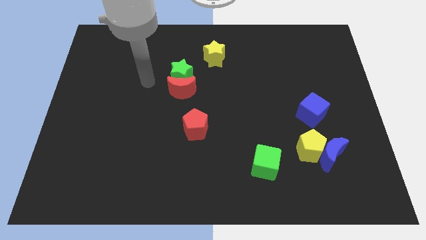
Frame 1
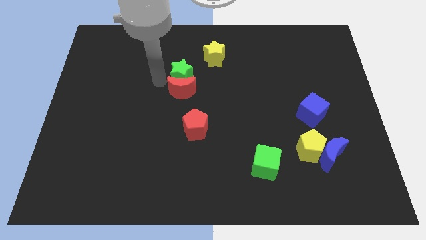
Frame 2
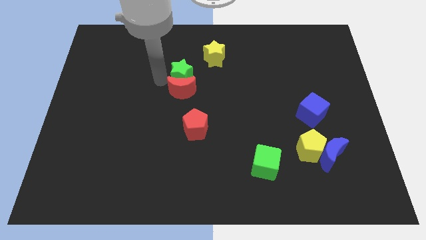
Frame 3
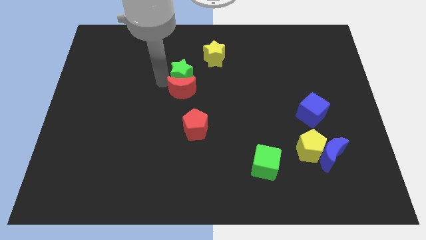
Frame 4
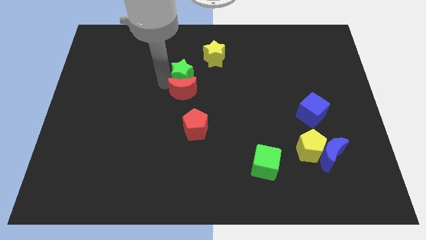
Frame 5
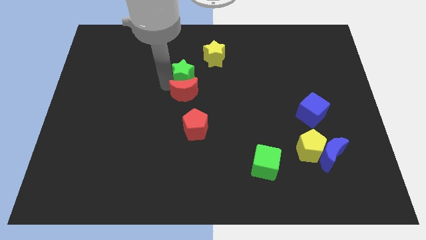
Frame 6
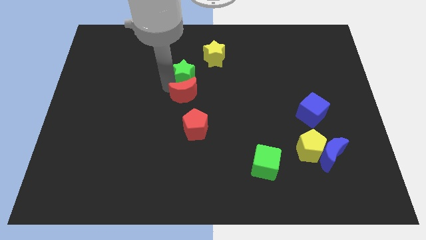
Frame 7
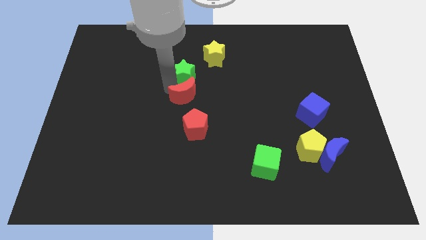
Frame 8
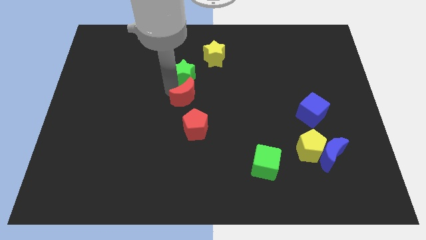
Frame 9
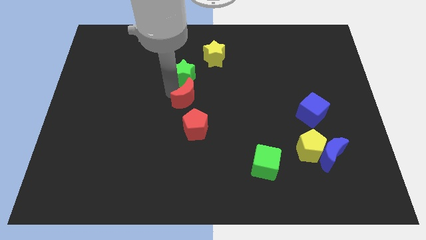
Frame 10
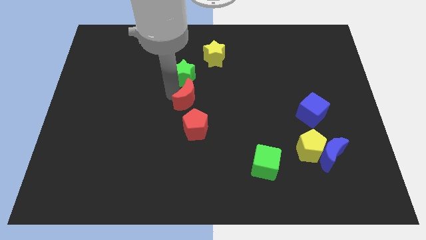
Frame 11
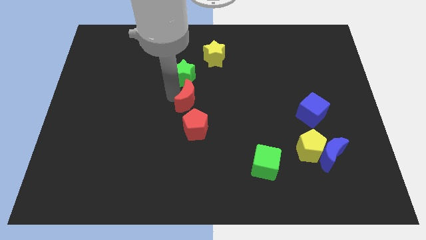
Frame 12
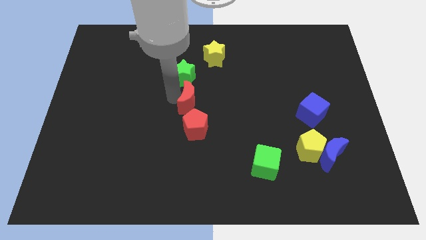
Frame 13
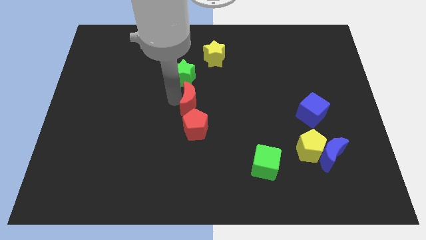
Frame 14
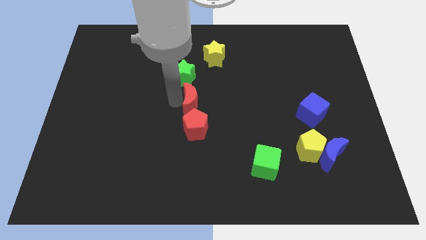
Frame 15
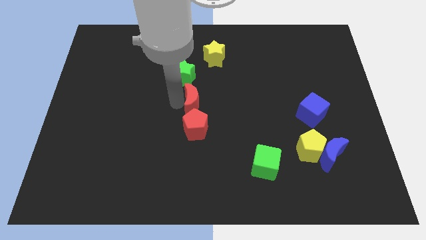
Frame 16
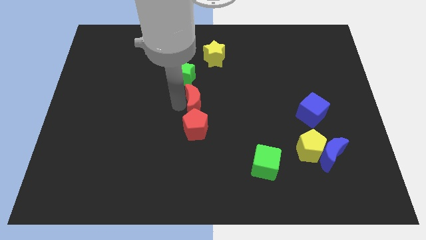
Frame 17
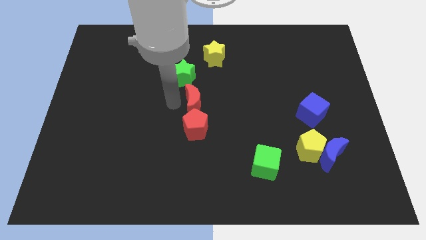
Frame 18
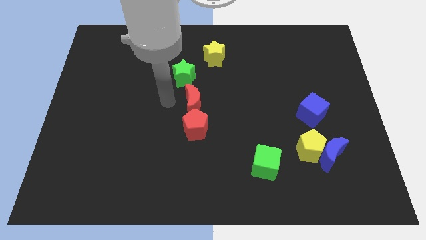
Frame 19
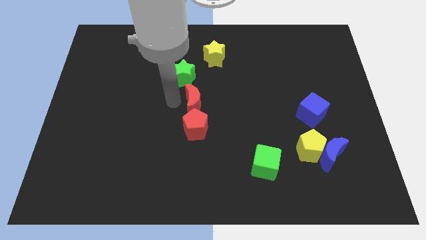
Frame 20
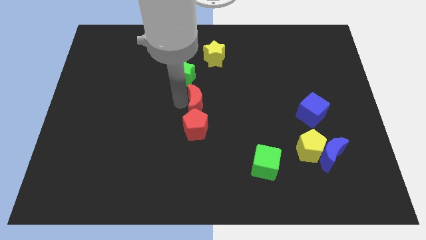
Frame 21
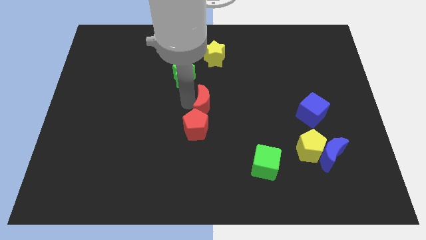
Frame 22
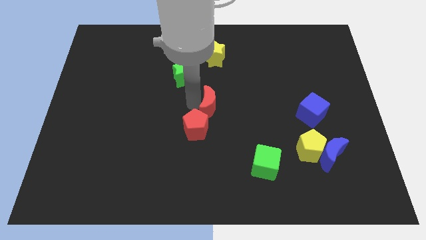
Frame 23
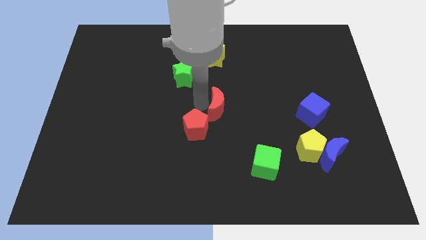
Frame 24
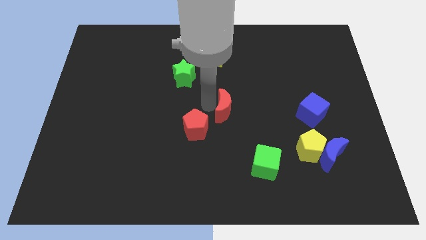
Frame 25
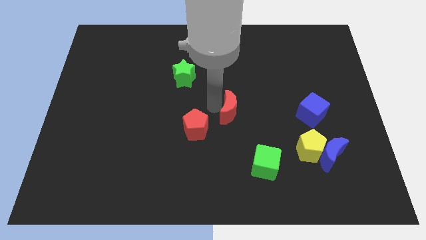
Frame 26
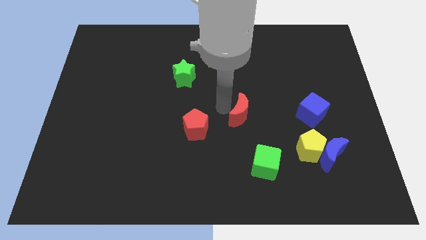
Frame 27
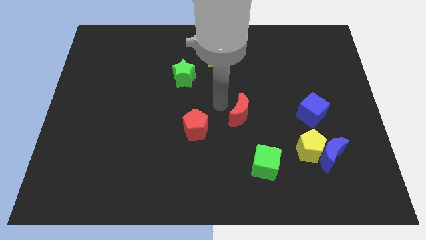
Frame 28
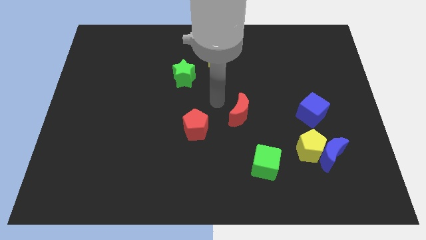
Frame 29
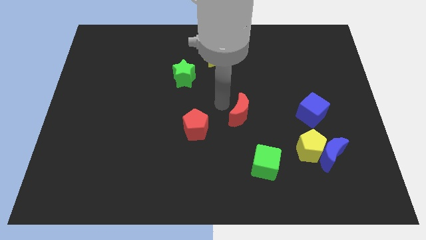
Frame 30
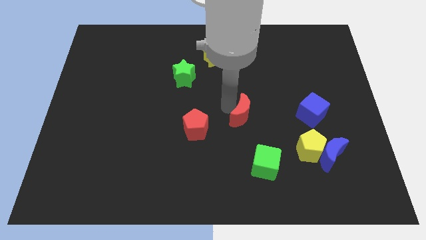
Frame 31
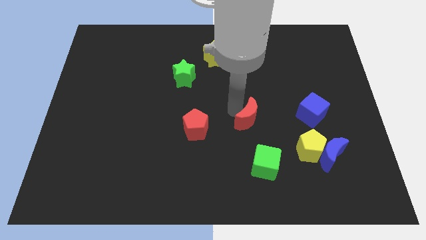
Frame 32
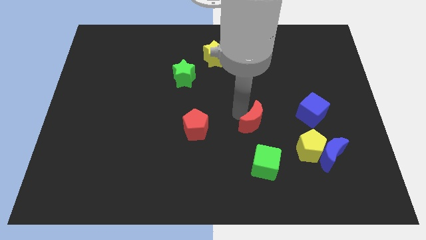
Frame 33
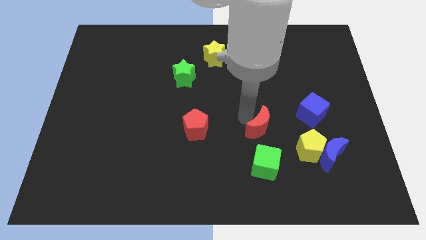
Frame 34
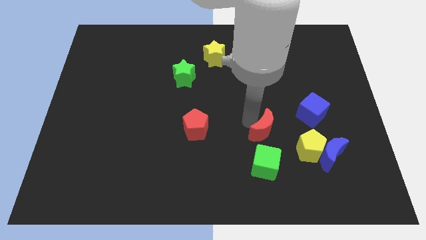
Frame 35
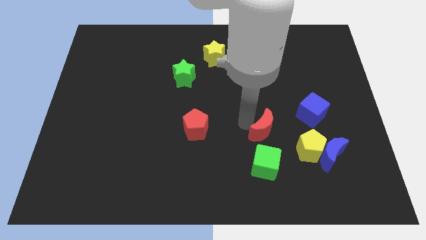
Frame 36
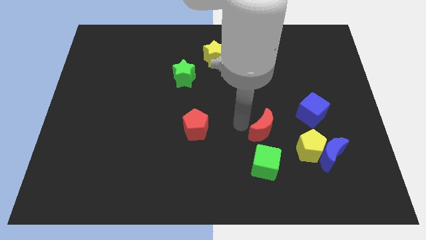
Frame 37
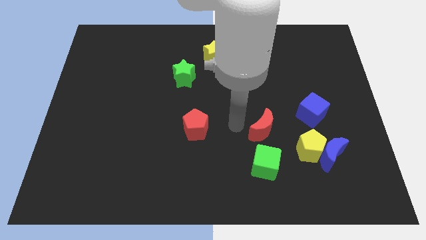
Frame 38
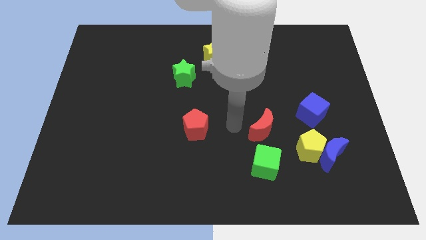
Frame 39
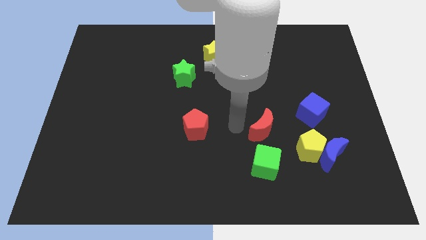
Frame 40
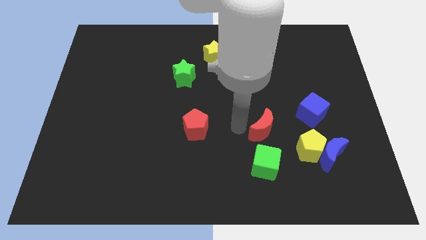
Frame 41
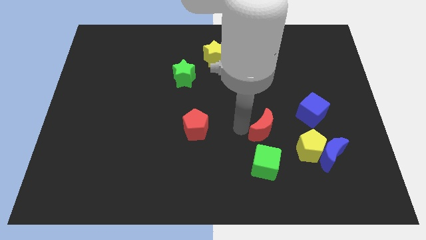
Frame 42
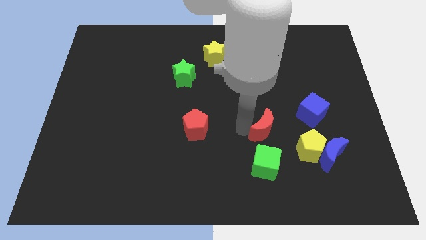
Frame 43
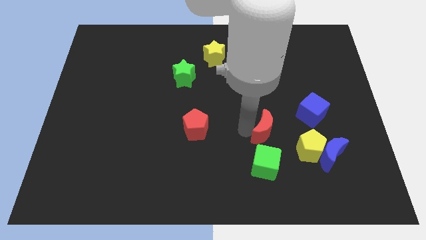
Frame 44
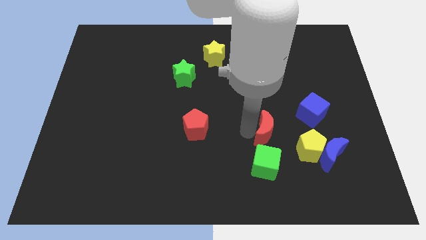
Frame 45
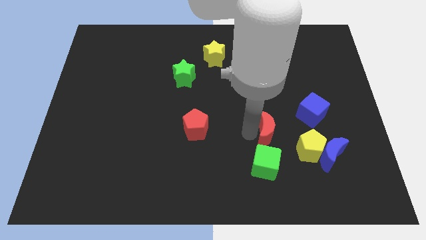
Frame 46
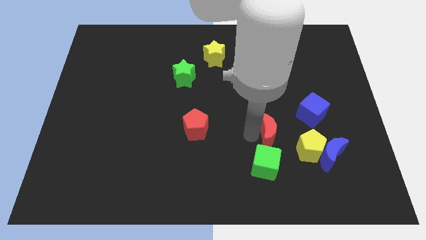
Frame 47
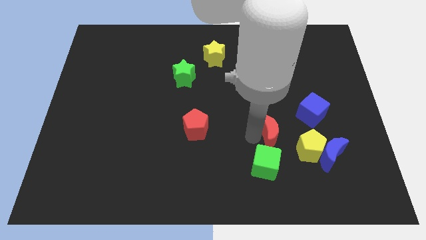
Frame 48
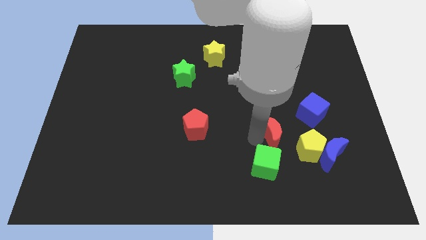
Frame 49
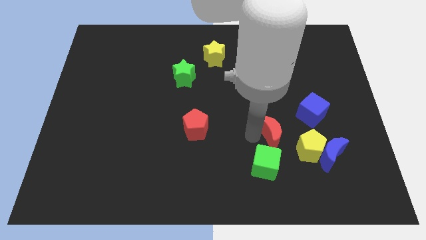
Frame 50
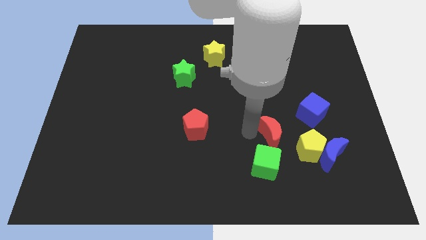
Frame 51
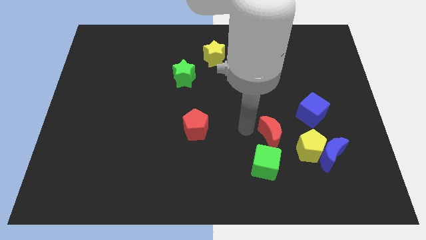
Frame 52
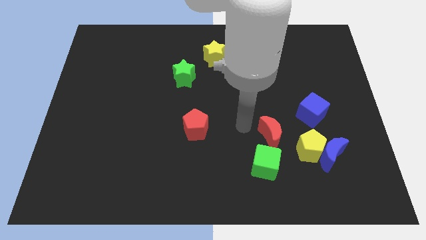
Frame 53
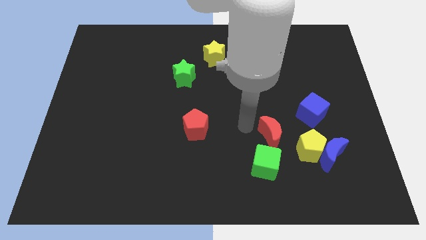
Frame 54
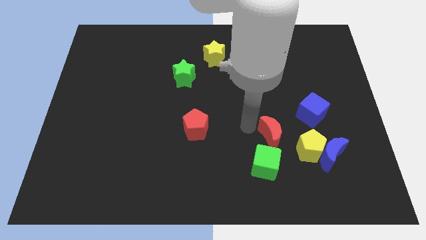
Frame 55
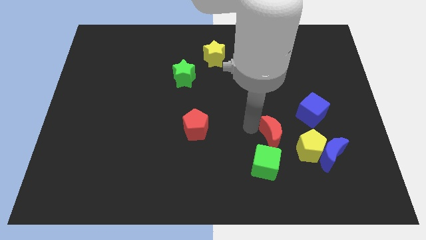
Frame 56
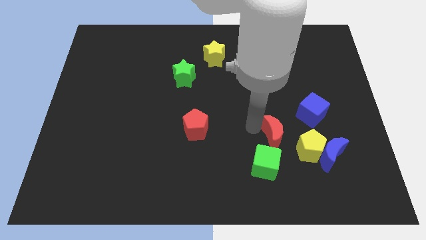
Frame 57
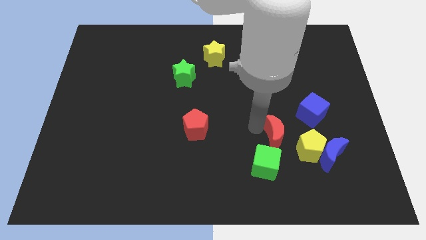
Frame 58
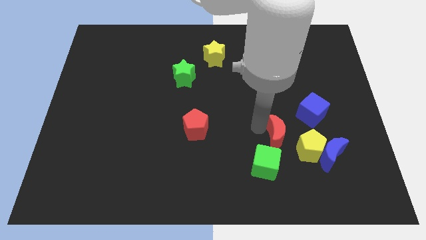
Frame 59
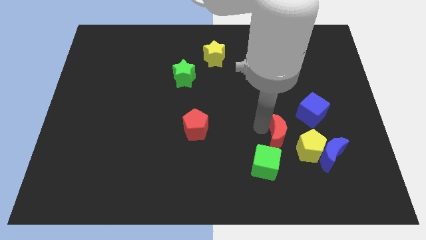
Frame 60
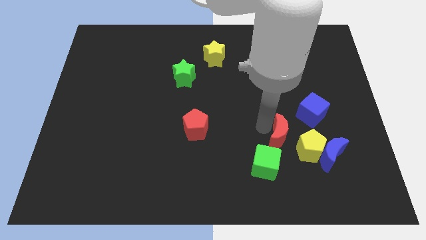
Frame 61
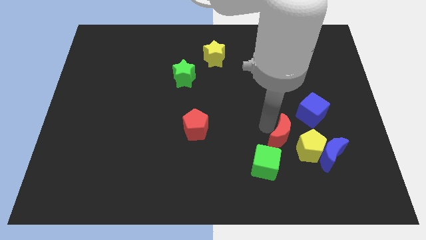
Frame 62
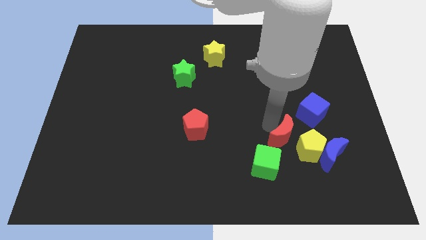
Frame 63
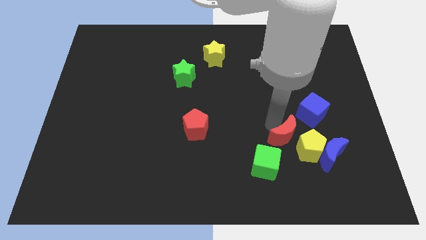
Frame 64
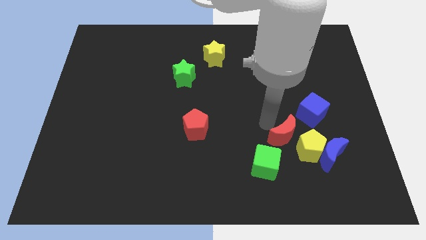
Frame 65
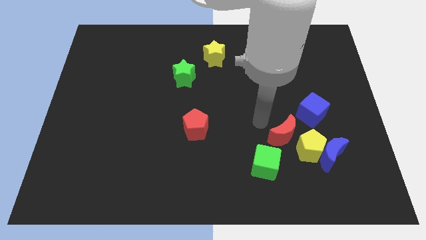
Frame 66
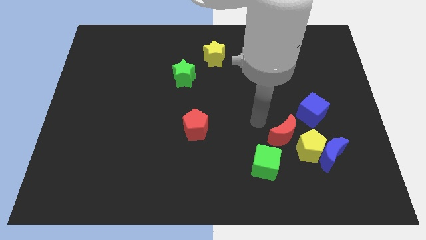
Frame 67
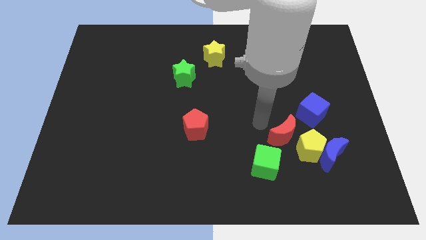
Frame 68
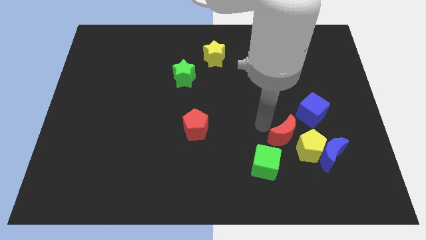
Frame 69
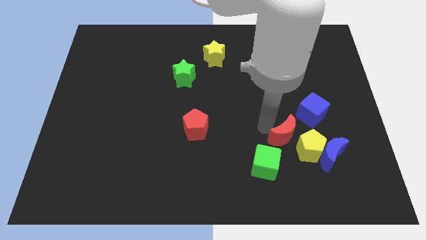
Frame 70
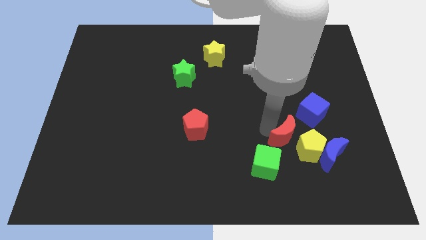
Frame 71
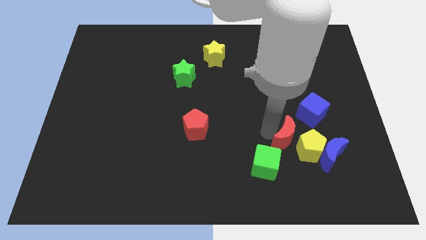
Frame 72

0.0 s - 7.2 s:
move the red moon to the yellow pentagon

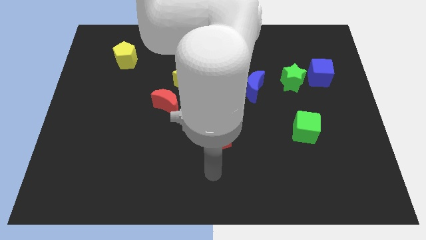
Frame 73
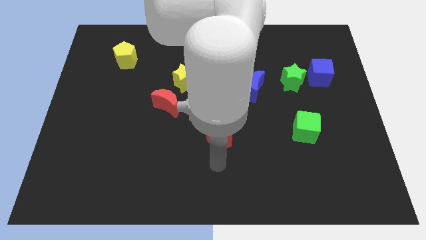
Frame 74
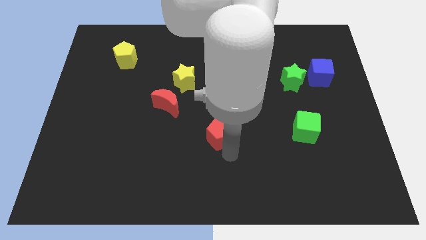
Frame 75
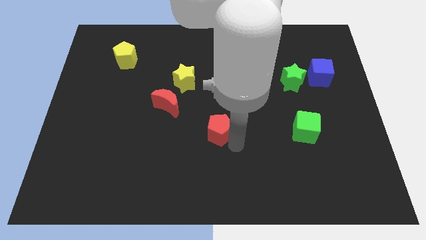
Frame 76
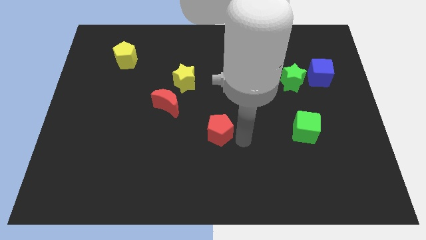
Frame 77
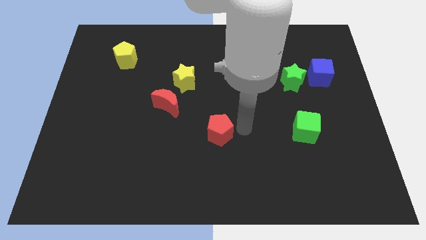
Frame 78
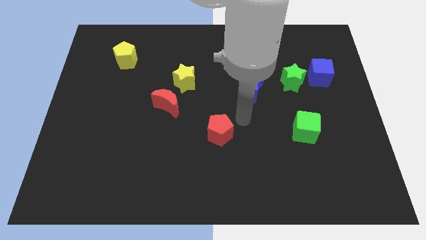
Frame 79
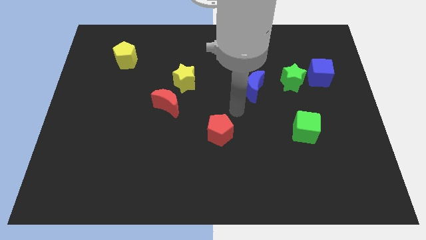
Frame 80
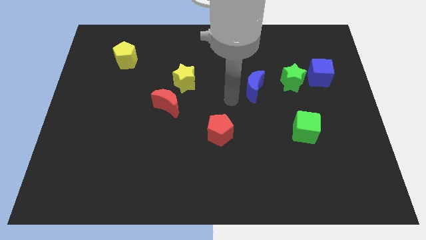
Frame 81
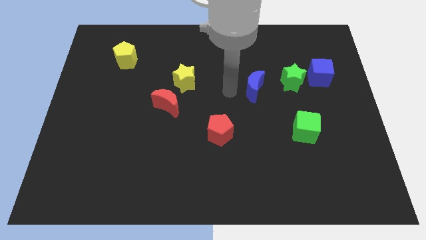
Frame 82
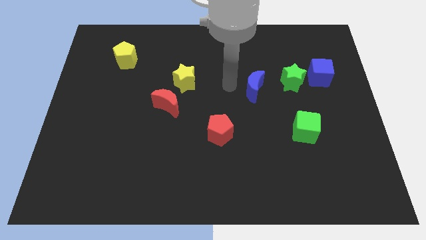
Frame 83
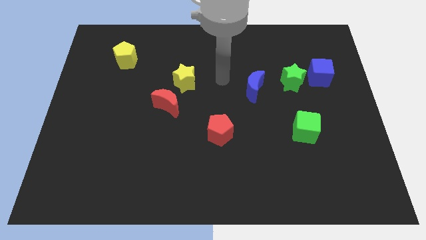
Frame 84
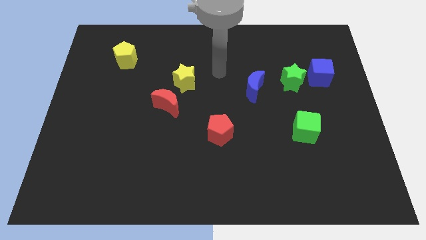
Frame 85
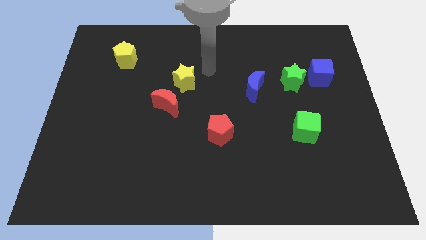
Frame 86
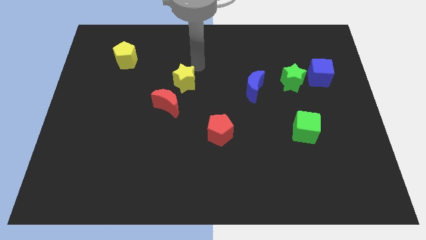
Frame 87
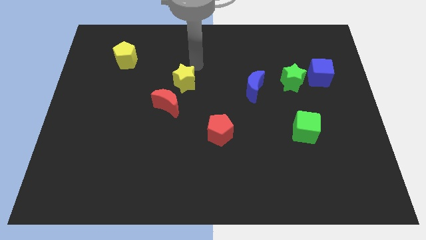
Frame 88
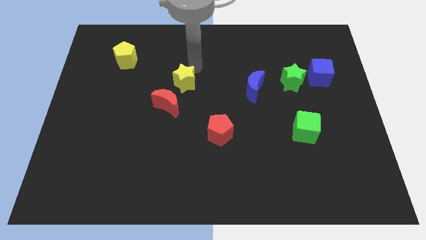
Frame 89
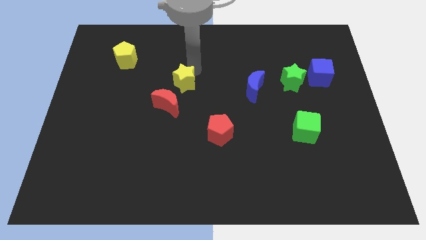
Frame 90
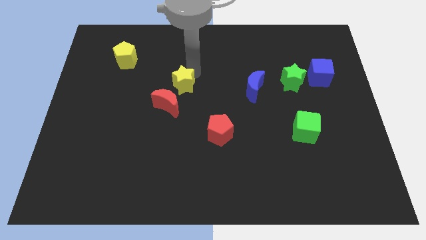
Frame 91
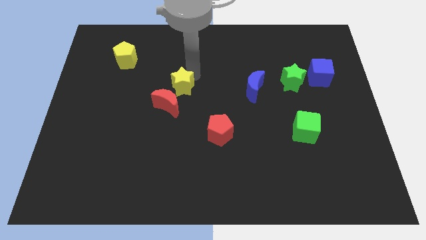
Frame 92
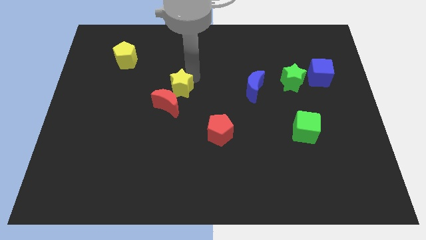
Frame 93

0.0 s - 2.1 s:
slide the yellow star towards the red moon
